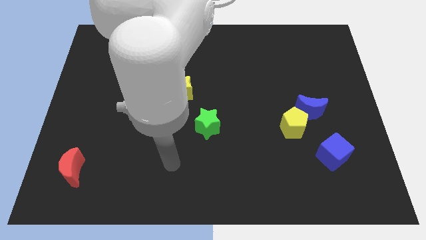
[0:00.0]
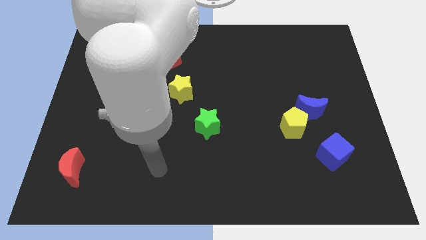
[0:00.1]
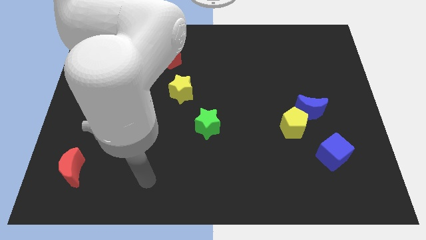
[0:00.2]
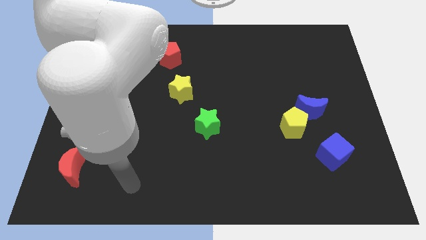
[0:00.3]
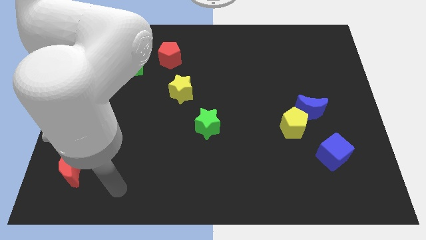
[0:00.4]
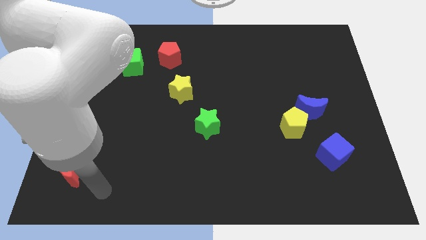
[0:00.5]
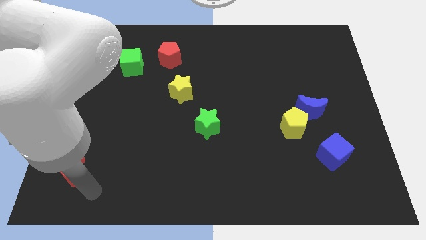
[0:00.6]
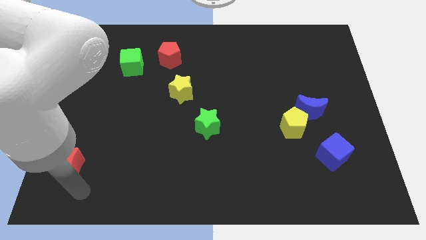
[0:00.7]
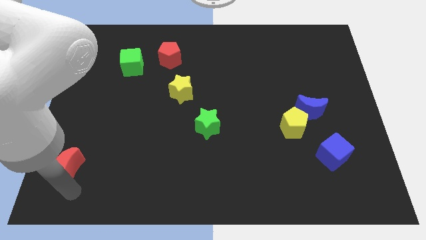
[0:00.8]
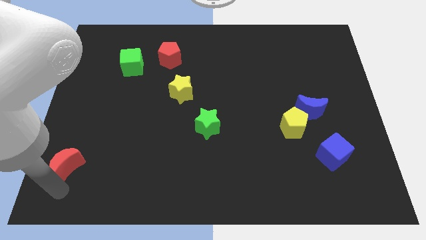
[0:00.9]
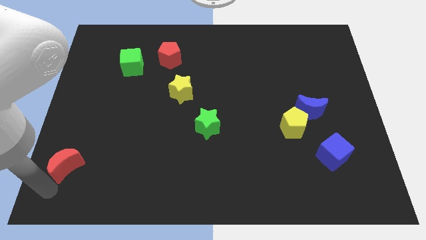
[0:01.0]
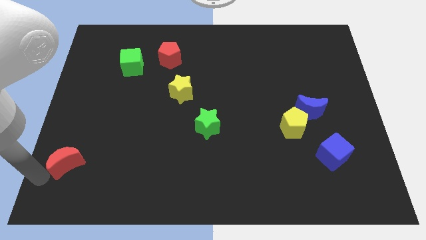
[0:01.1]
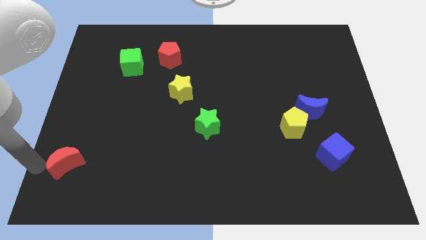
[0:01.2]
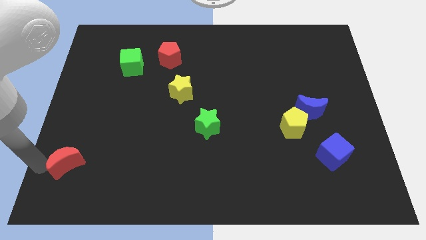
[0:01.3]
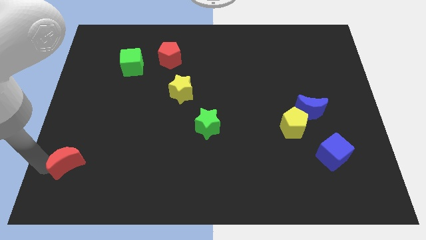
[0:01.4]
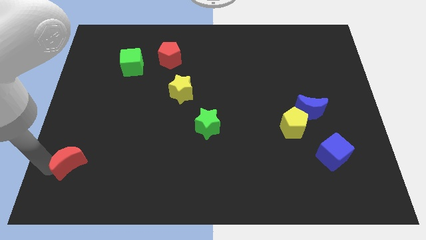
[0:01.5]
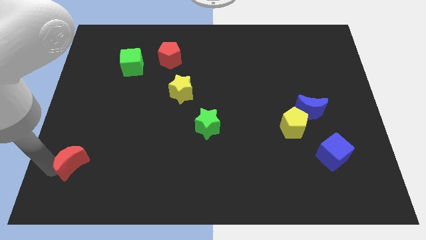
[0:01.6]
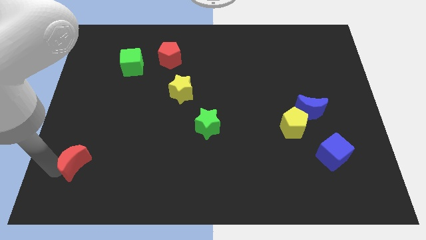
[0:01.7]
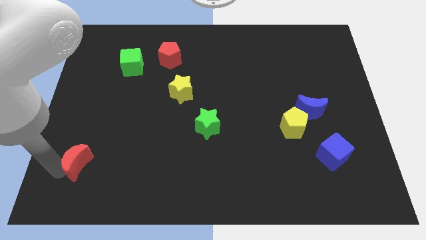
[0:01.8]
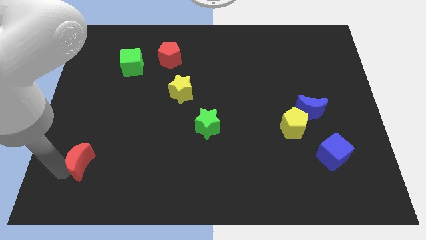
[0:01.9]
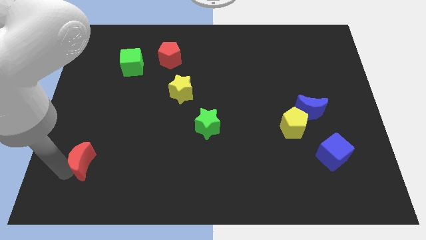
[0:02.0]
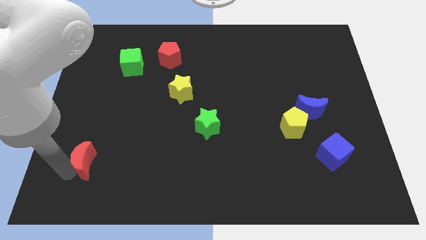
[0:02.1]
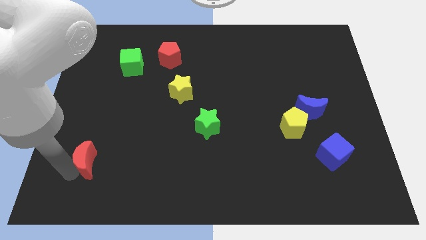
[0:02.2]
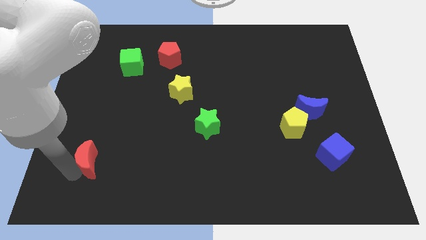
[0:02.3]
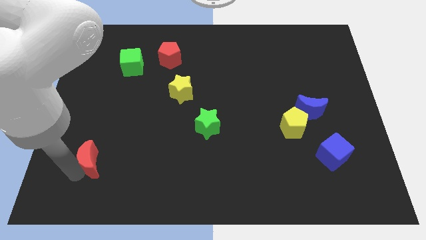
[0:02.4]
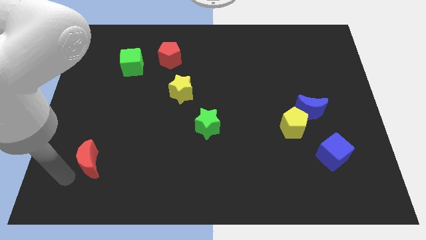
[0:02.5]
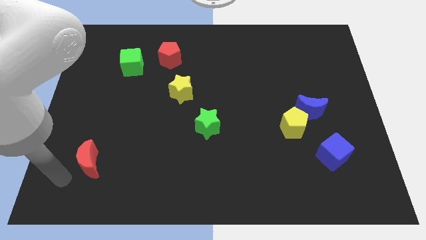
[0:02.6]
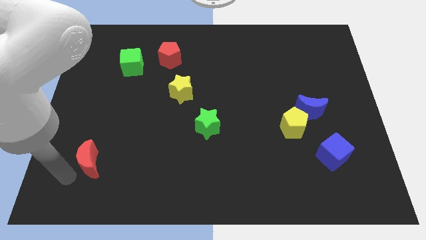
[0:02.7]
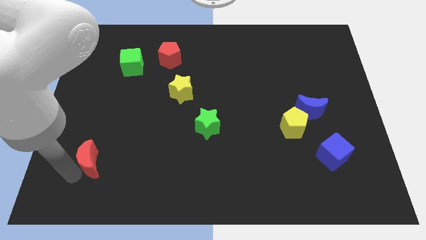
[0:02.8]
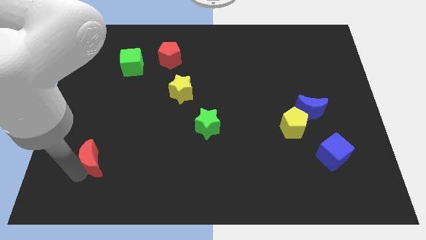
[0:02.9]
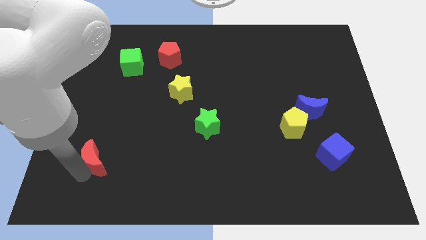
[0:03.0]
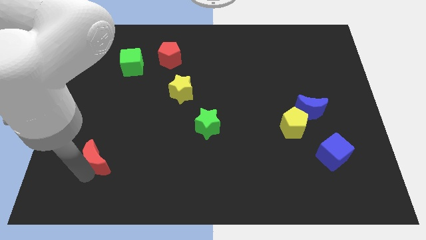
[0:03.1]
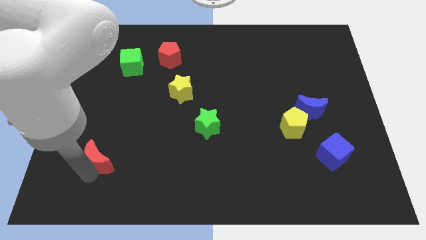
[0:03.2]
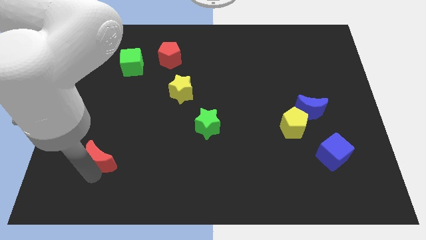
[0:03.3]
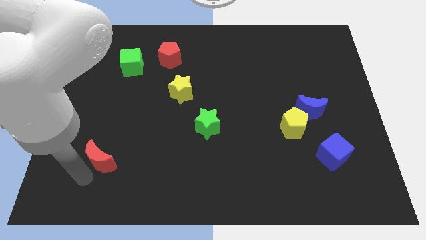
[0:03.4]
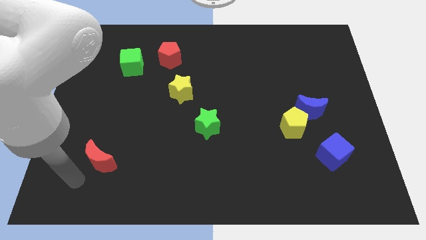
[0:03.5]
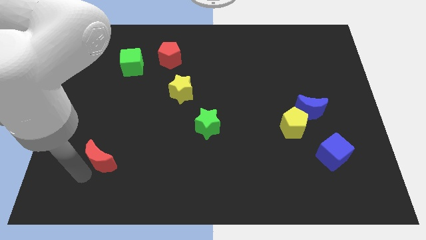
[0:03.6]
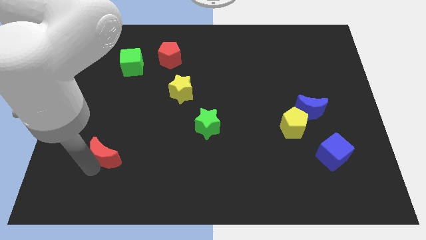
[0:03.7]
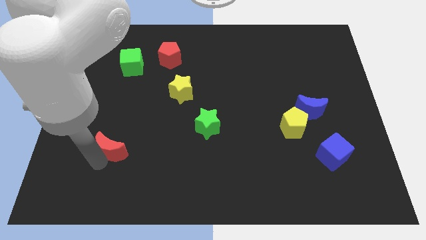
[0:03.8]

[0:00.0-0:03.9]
move the red moon a bit upwards and to the right

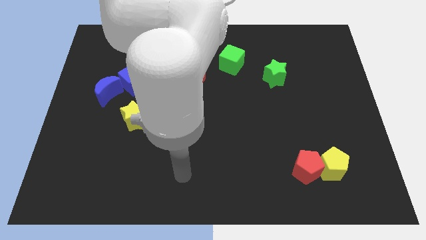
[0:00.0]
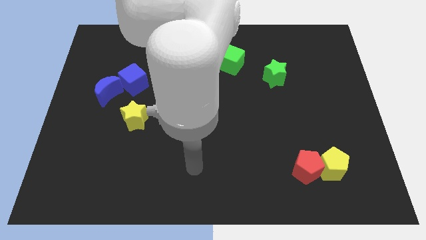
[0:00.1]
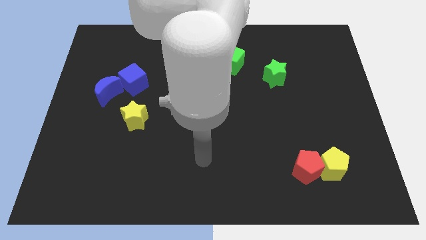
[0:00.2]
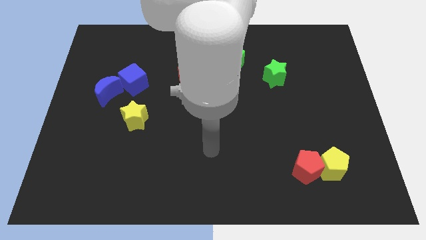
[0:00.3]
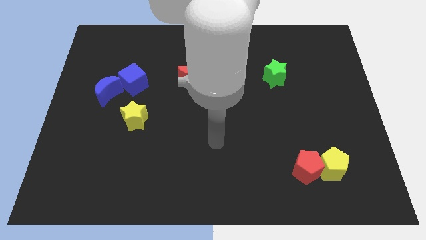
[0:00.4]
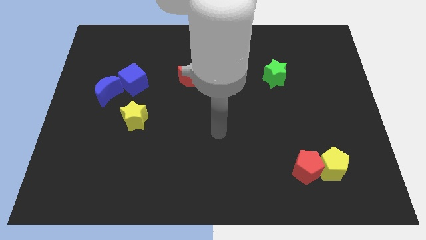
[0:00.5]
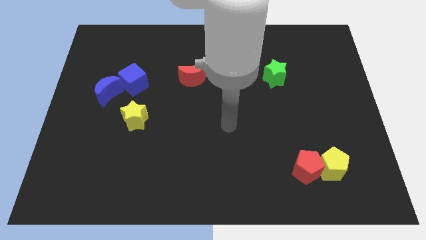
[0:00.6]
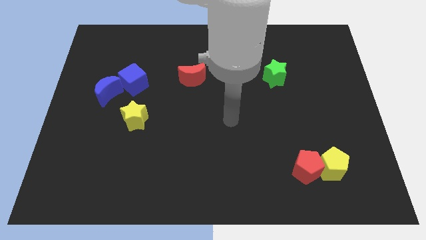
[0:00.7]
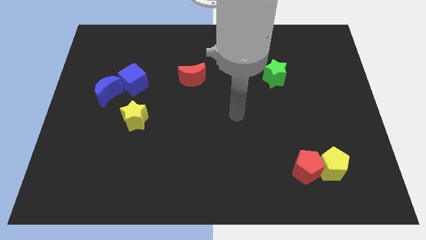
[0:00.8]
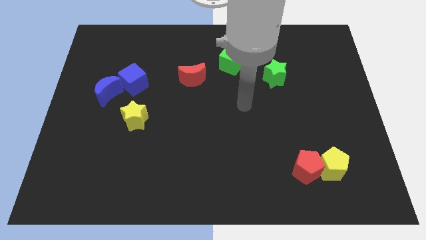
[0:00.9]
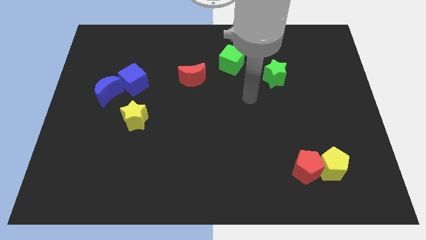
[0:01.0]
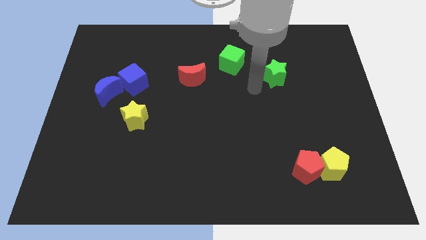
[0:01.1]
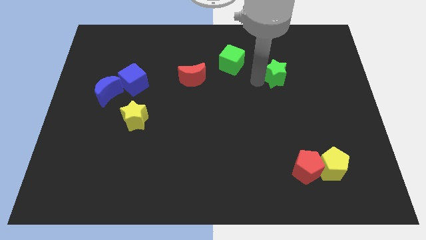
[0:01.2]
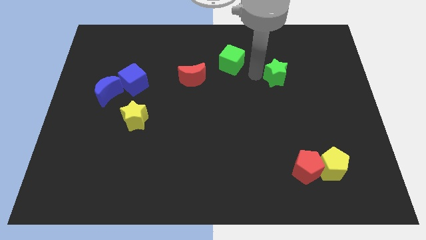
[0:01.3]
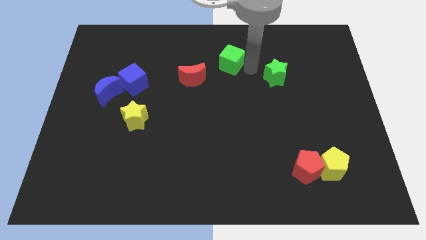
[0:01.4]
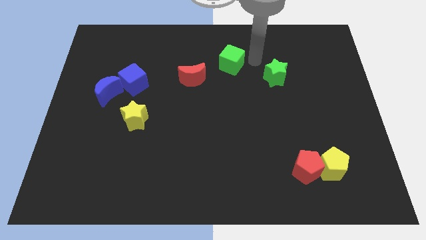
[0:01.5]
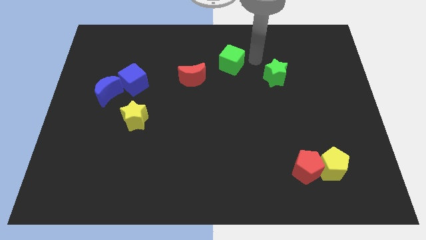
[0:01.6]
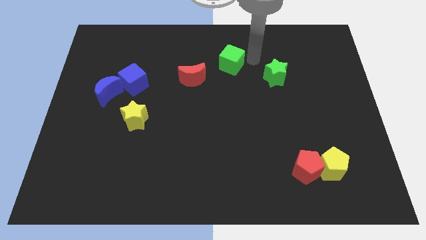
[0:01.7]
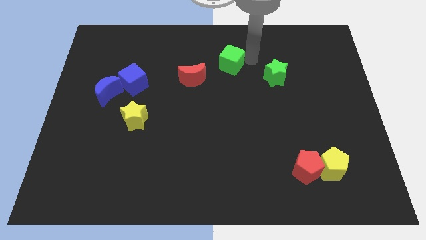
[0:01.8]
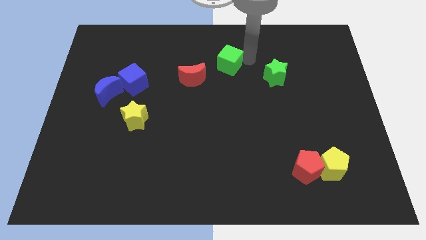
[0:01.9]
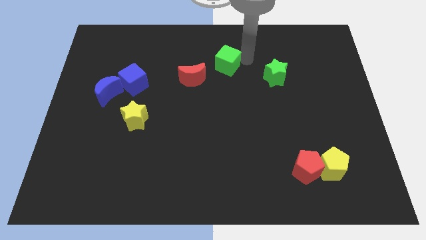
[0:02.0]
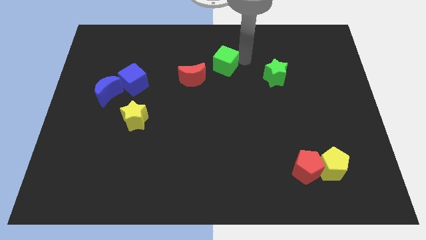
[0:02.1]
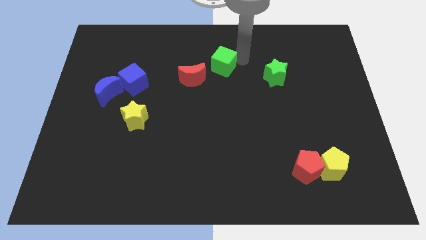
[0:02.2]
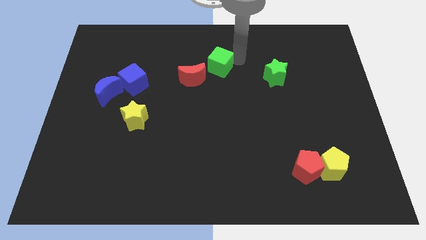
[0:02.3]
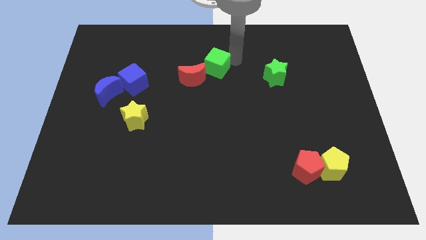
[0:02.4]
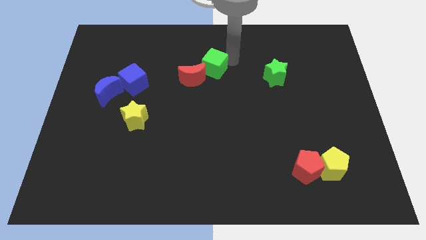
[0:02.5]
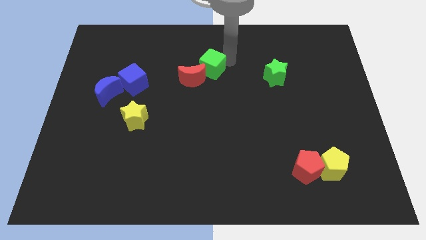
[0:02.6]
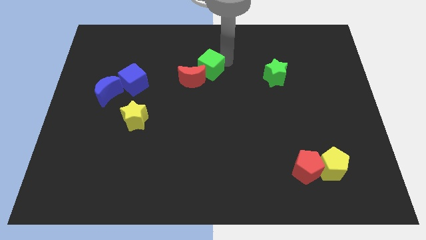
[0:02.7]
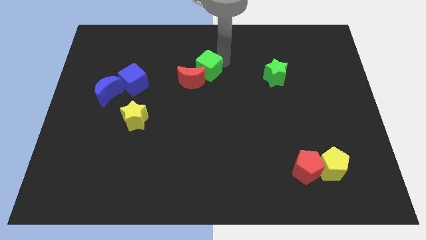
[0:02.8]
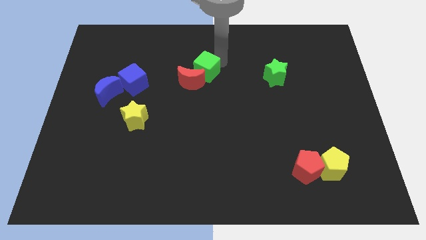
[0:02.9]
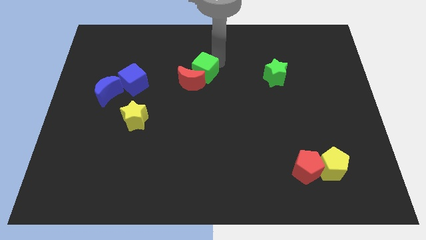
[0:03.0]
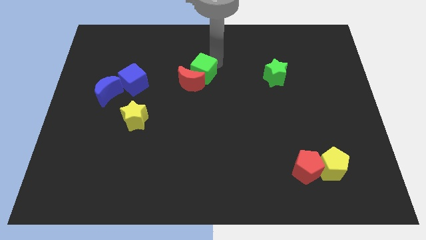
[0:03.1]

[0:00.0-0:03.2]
slide the green cube a bit left

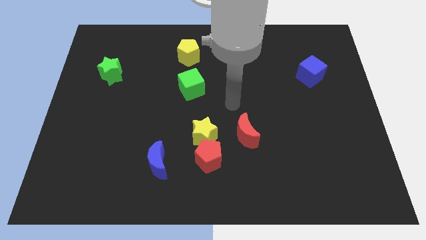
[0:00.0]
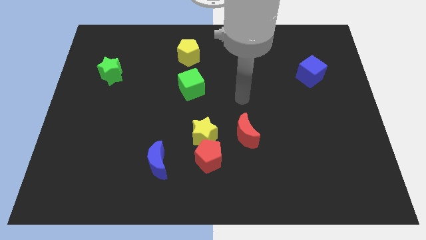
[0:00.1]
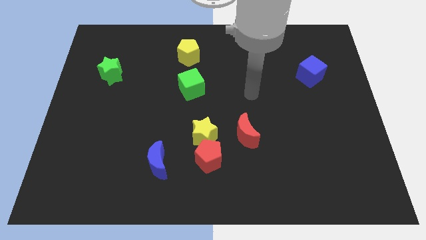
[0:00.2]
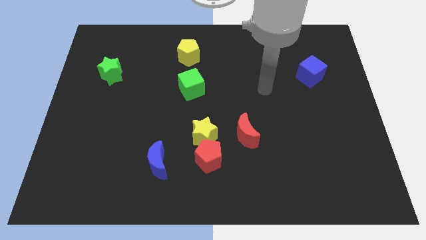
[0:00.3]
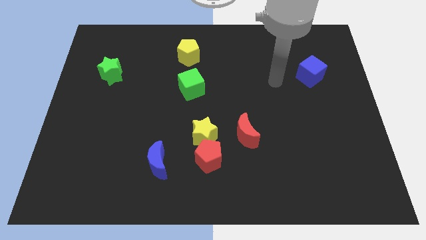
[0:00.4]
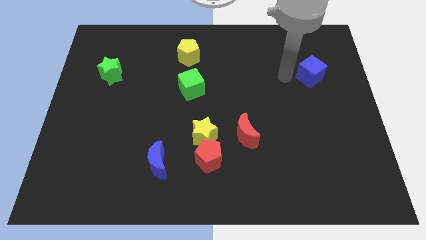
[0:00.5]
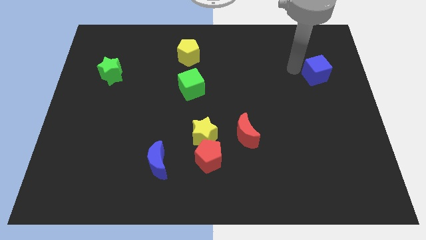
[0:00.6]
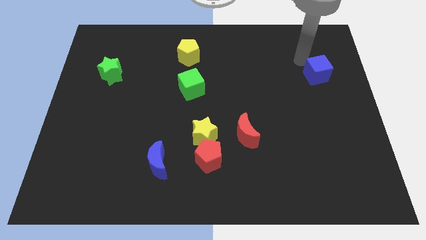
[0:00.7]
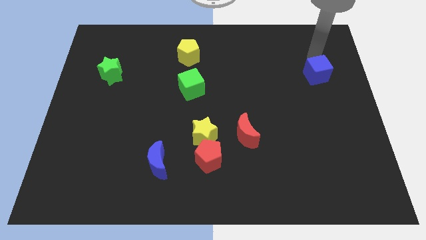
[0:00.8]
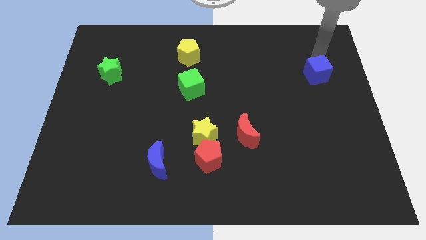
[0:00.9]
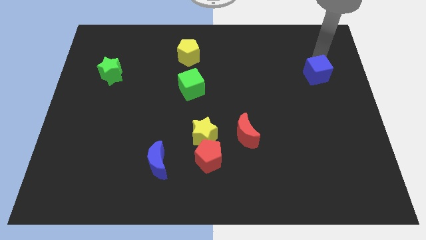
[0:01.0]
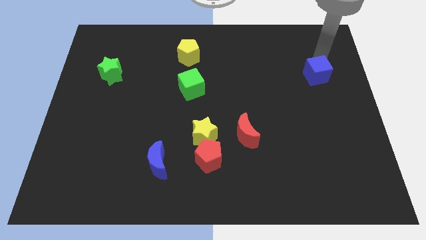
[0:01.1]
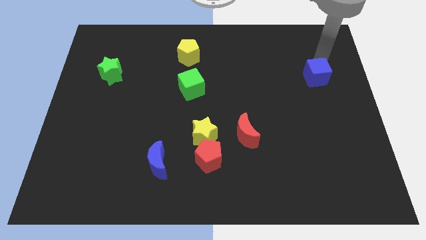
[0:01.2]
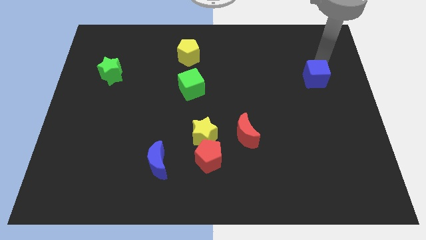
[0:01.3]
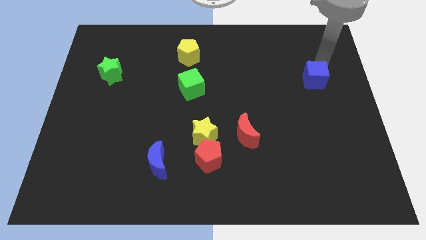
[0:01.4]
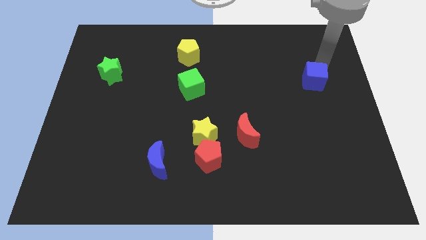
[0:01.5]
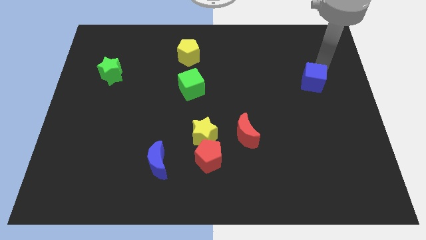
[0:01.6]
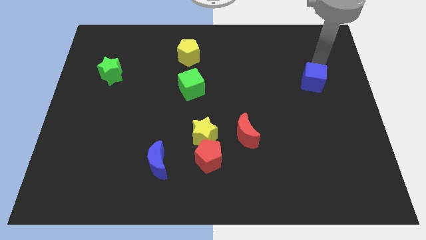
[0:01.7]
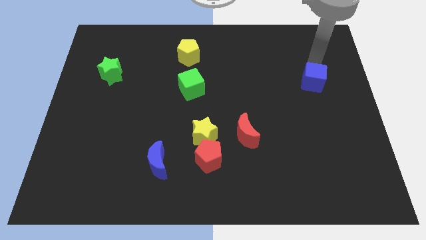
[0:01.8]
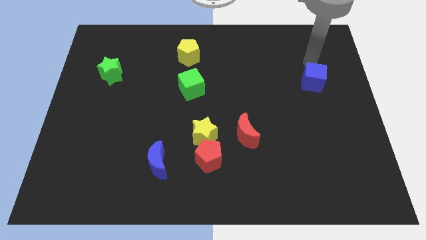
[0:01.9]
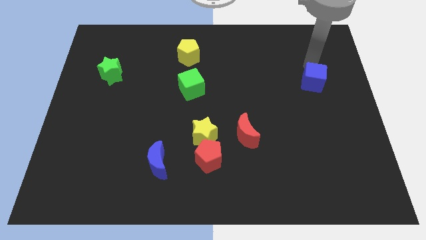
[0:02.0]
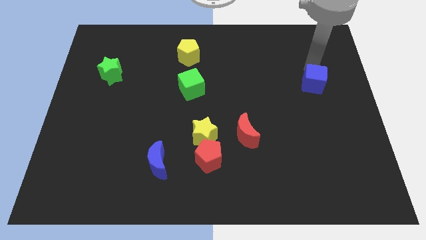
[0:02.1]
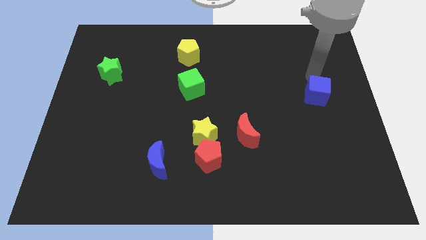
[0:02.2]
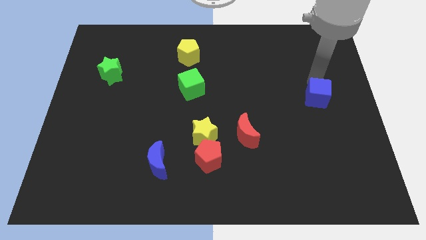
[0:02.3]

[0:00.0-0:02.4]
push the blue cube slightly downwards
